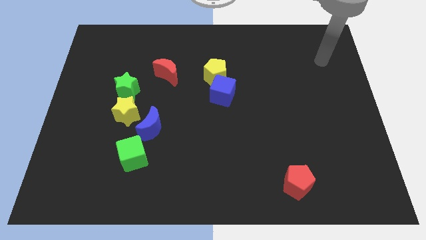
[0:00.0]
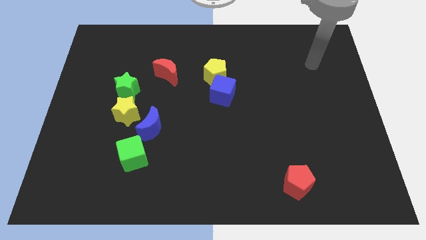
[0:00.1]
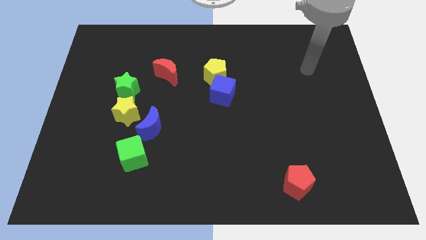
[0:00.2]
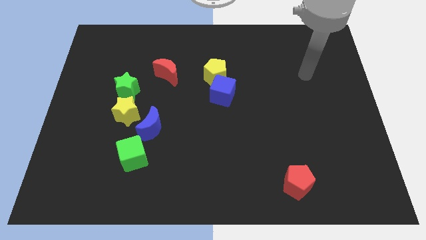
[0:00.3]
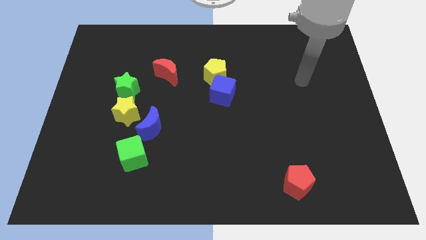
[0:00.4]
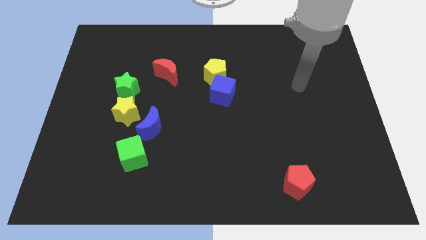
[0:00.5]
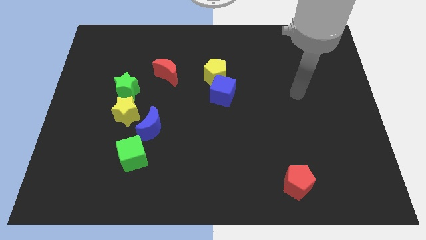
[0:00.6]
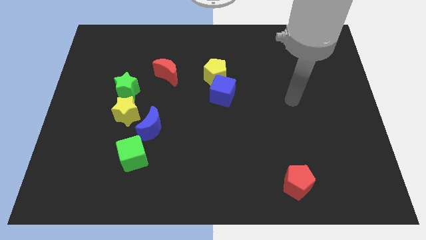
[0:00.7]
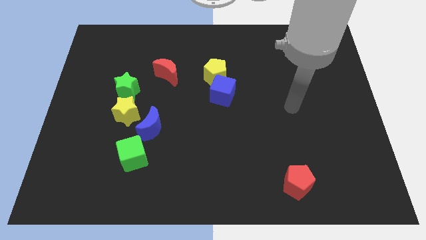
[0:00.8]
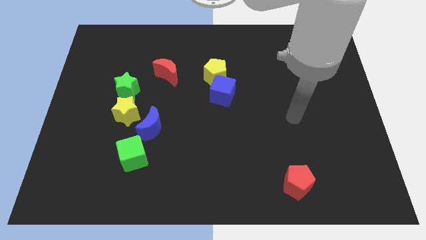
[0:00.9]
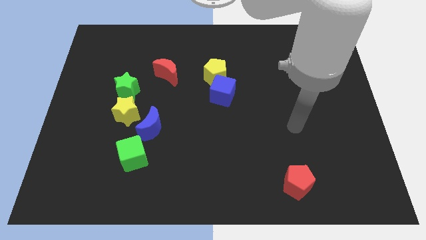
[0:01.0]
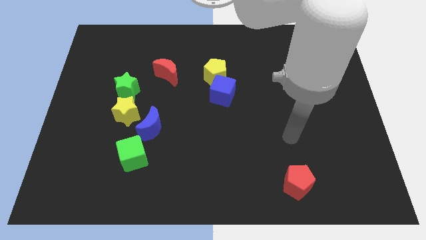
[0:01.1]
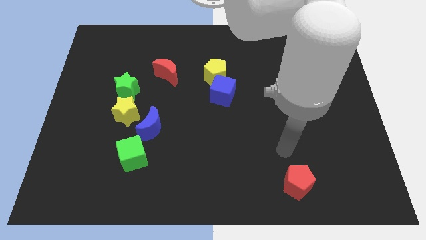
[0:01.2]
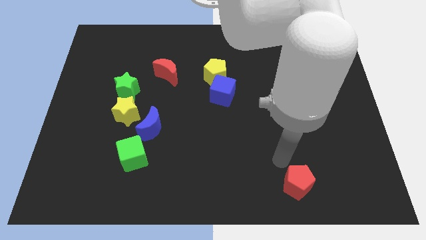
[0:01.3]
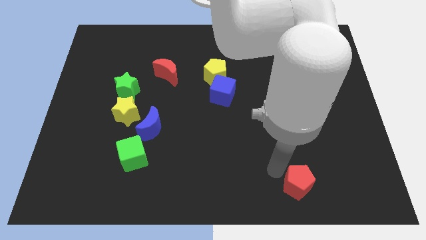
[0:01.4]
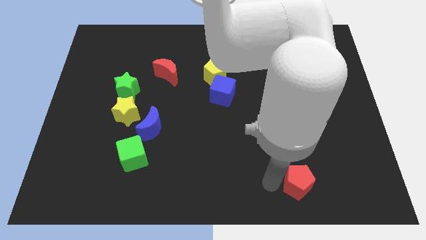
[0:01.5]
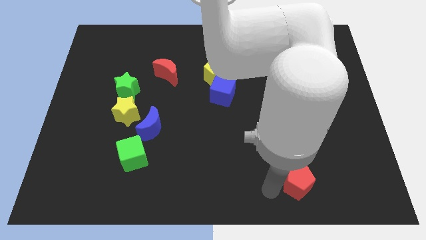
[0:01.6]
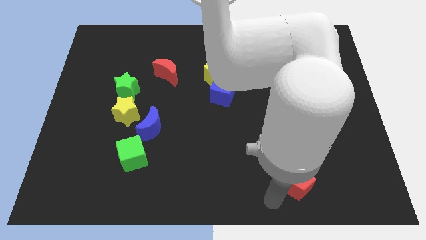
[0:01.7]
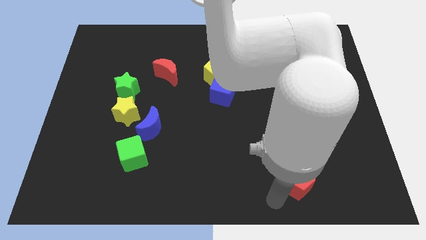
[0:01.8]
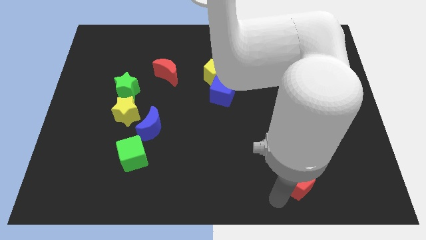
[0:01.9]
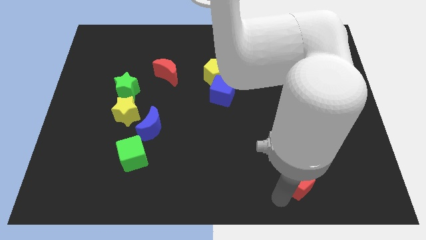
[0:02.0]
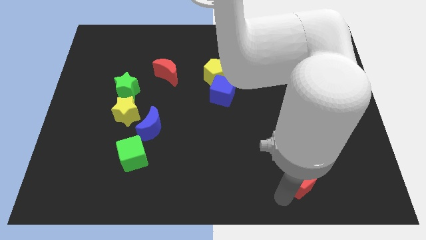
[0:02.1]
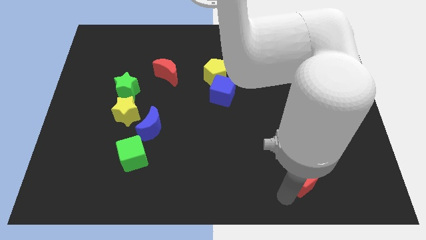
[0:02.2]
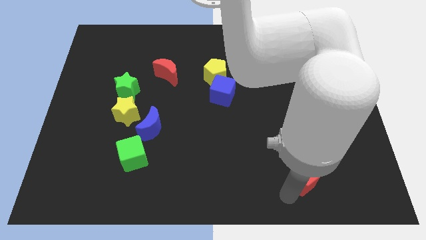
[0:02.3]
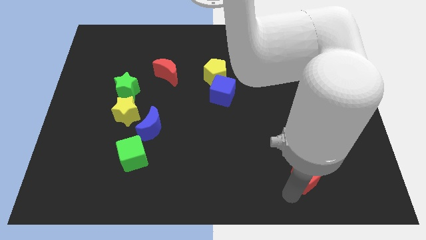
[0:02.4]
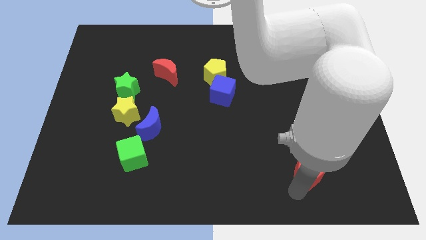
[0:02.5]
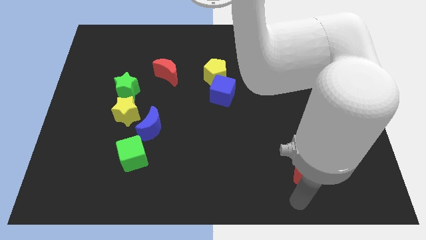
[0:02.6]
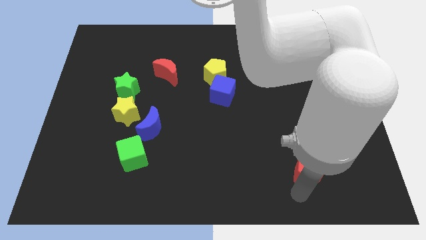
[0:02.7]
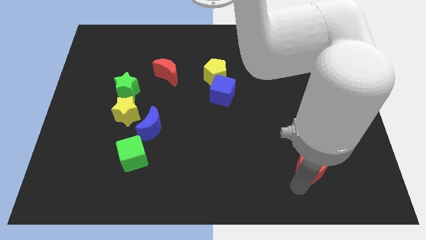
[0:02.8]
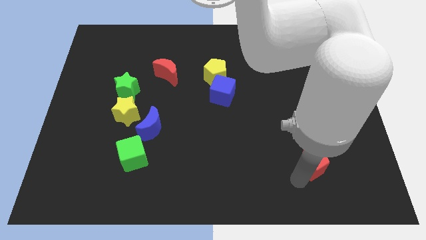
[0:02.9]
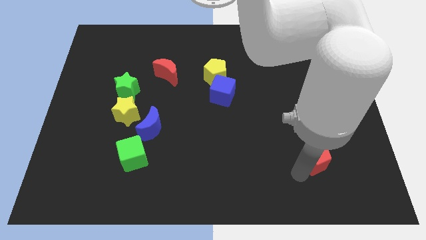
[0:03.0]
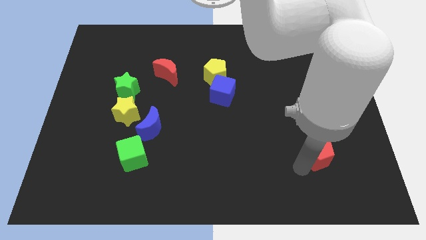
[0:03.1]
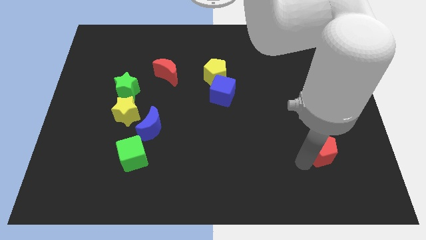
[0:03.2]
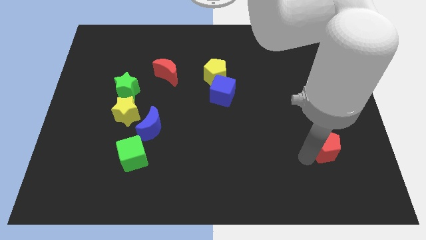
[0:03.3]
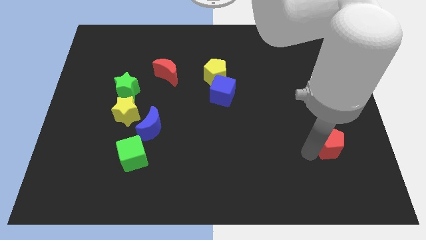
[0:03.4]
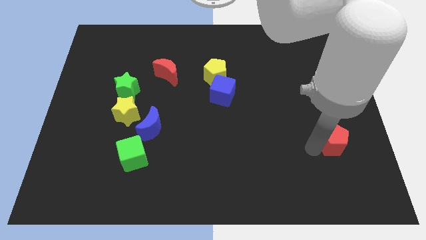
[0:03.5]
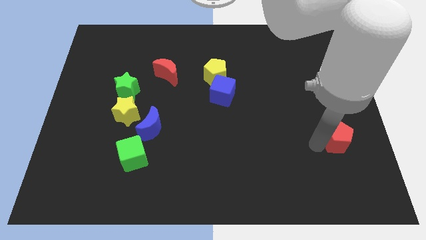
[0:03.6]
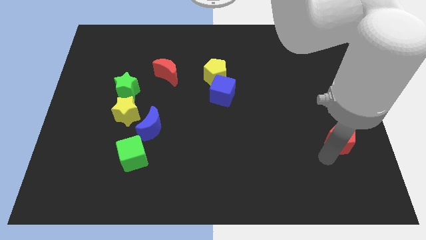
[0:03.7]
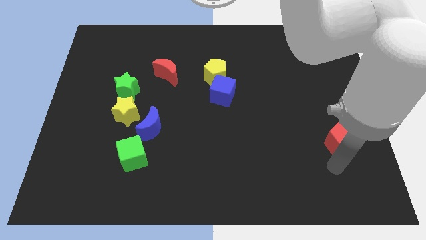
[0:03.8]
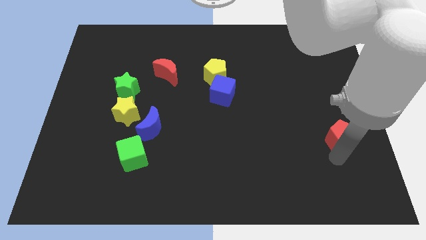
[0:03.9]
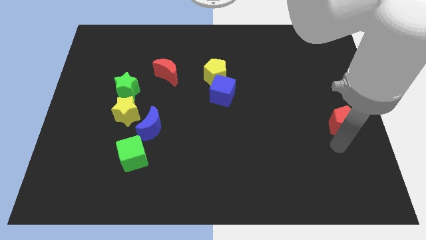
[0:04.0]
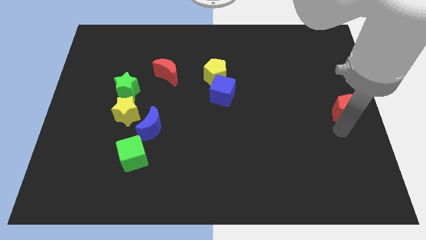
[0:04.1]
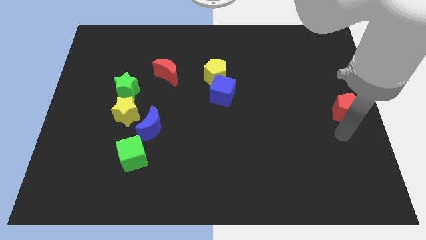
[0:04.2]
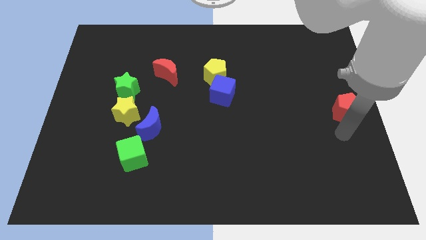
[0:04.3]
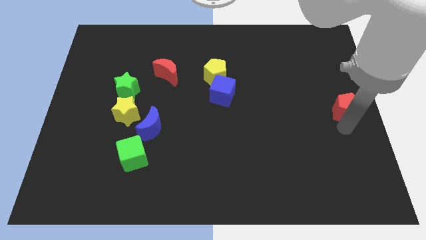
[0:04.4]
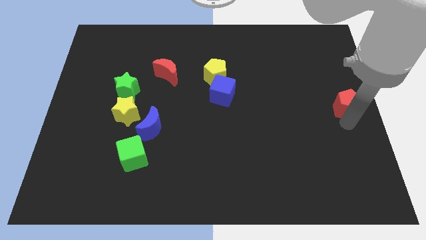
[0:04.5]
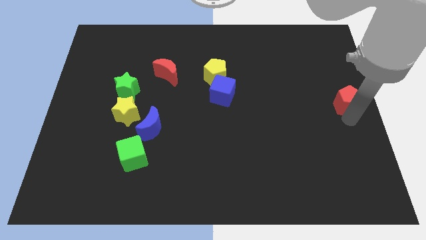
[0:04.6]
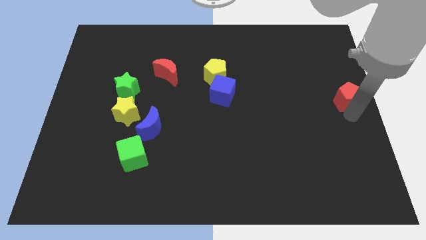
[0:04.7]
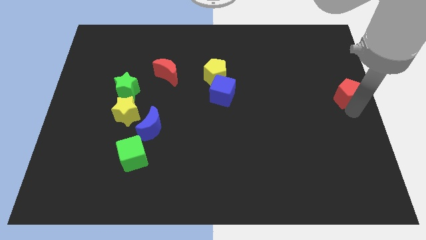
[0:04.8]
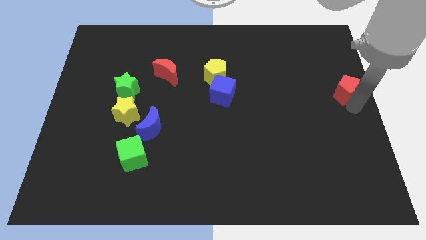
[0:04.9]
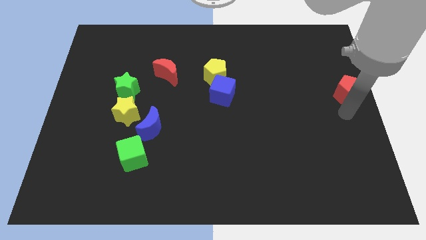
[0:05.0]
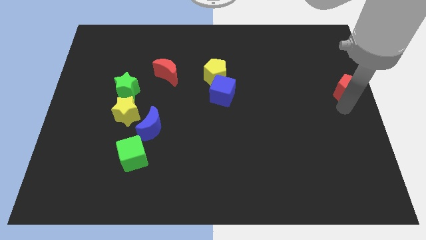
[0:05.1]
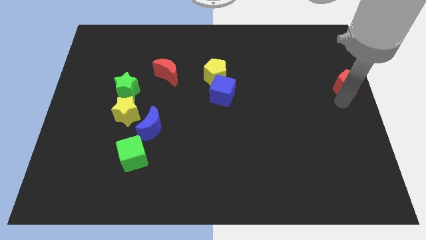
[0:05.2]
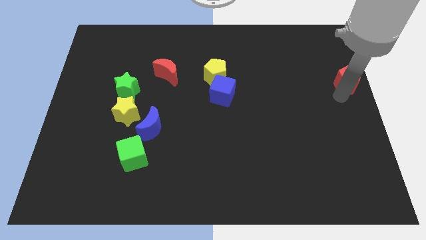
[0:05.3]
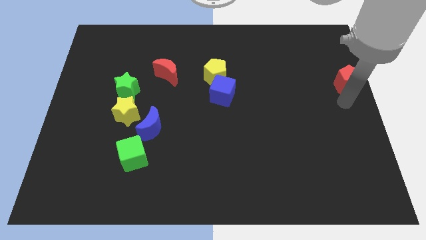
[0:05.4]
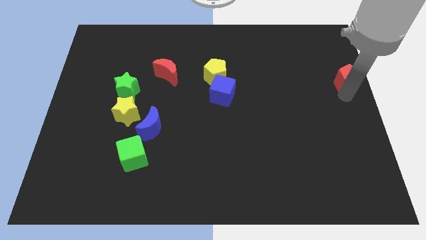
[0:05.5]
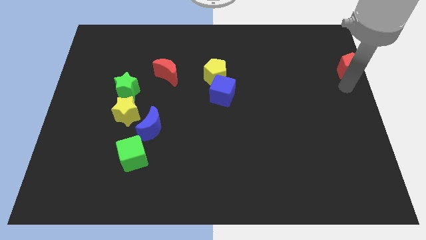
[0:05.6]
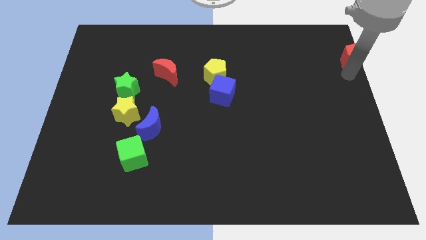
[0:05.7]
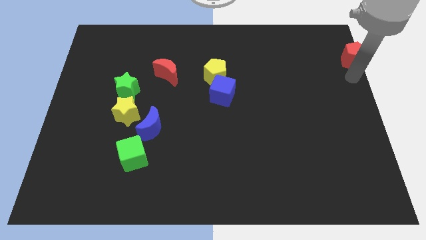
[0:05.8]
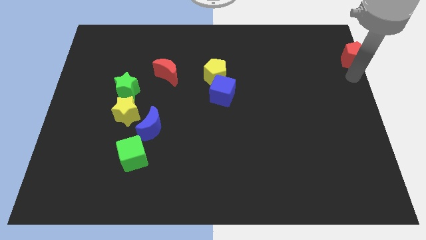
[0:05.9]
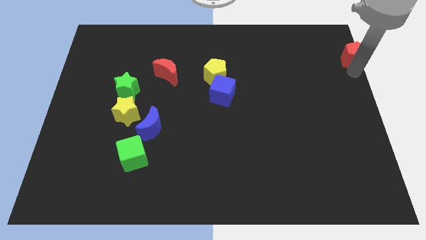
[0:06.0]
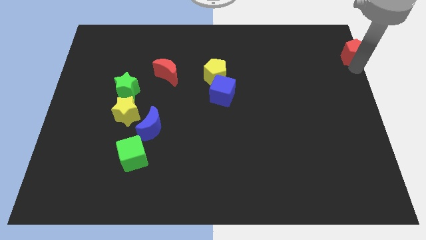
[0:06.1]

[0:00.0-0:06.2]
slide the red pentagon to the top right
